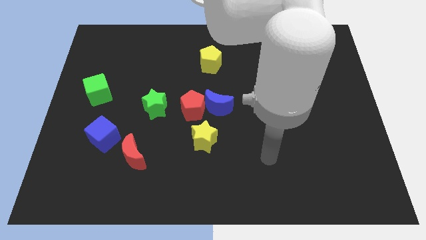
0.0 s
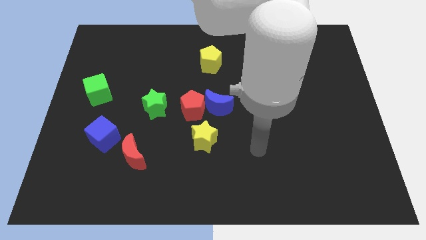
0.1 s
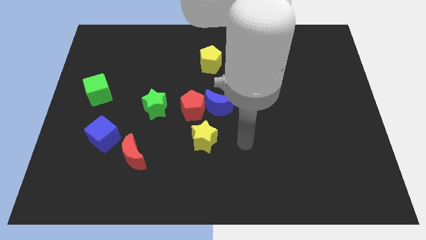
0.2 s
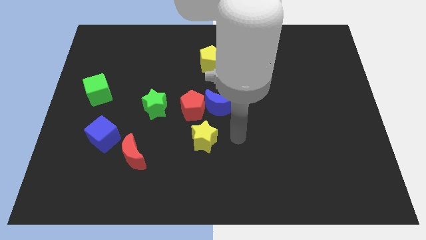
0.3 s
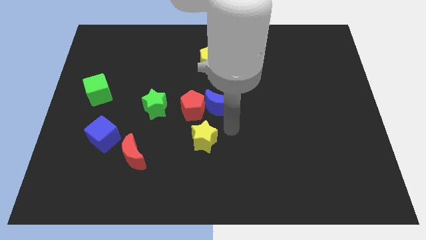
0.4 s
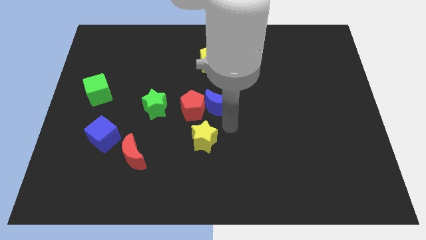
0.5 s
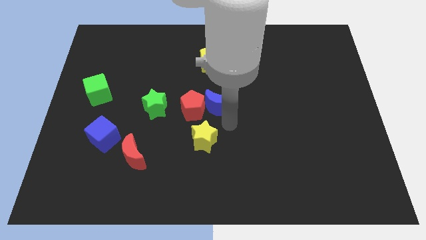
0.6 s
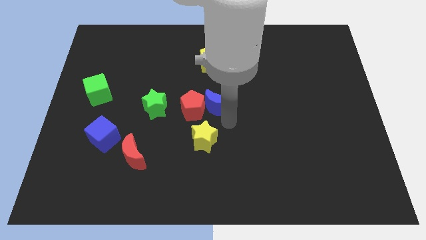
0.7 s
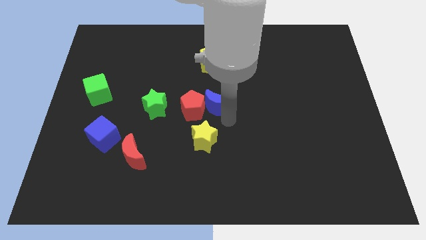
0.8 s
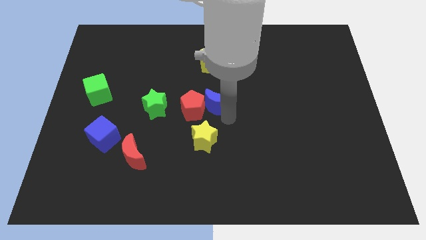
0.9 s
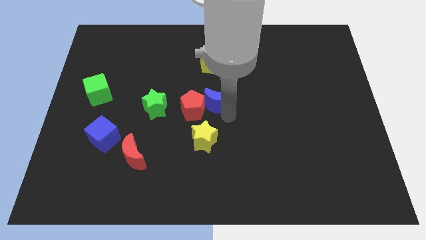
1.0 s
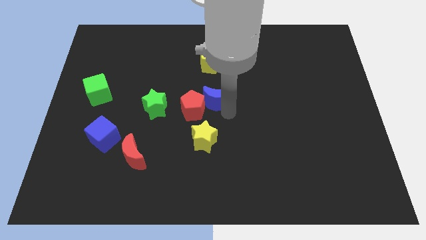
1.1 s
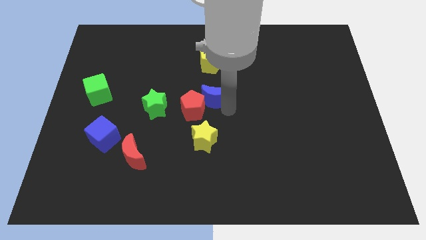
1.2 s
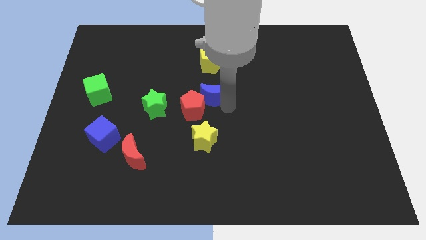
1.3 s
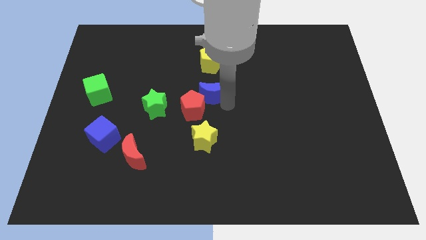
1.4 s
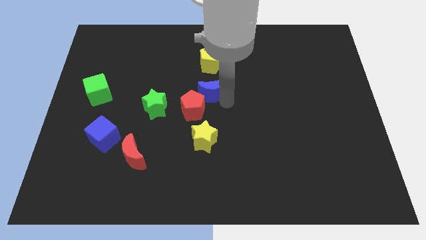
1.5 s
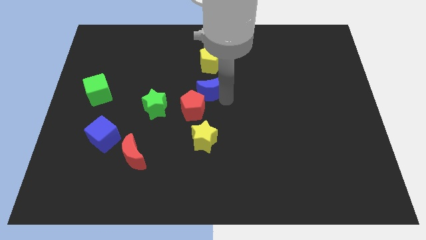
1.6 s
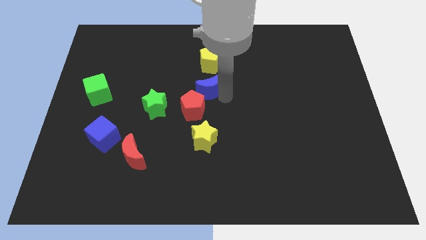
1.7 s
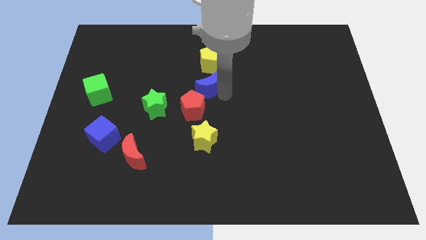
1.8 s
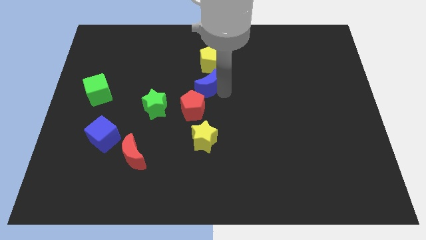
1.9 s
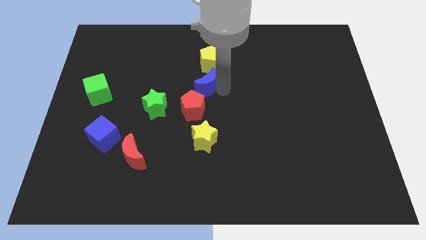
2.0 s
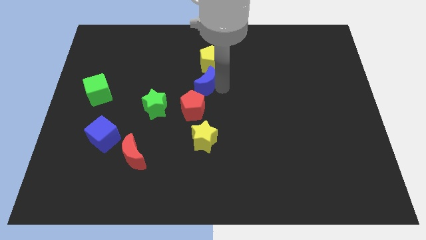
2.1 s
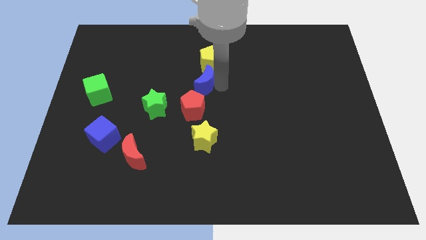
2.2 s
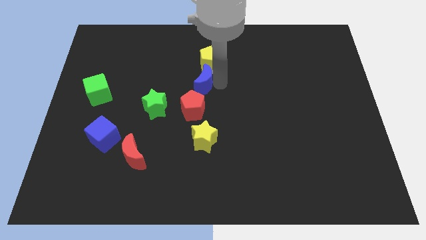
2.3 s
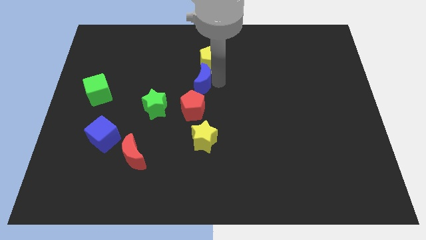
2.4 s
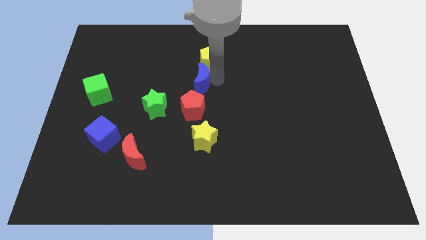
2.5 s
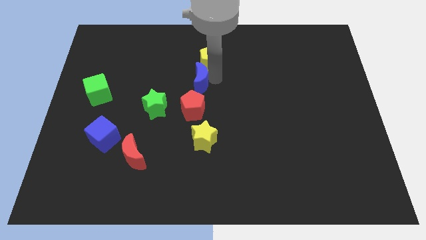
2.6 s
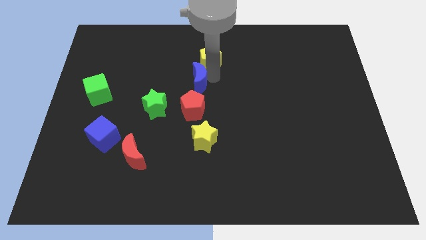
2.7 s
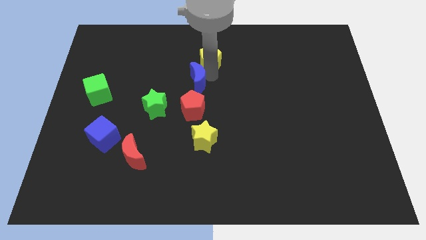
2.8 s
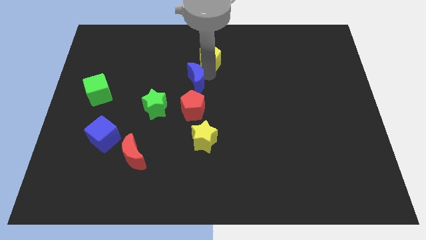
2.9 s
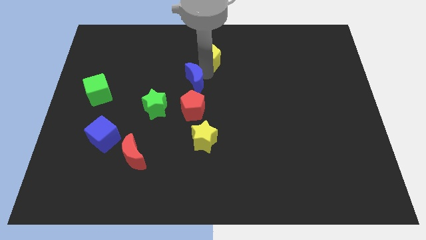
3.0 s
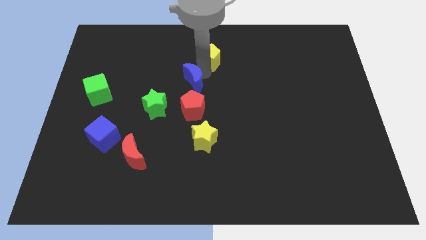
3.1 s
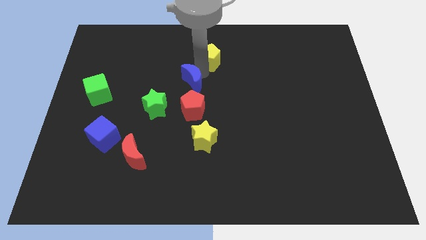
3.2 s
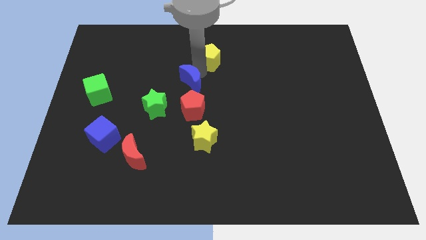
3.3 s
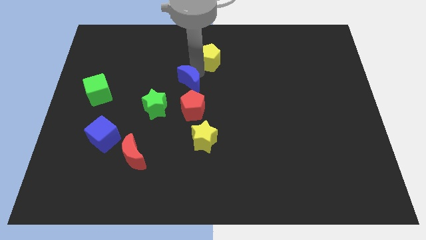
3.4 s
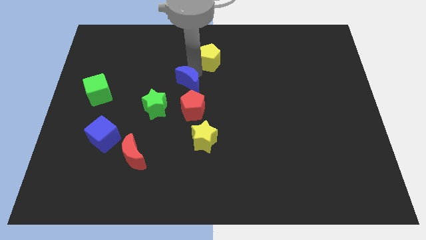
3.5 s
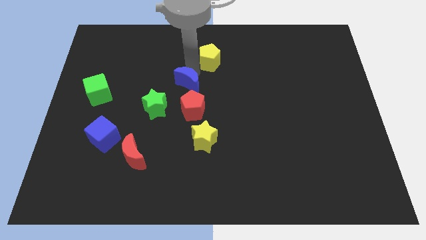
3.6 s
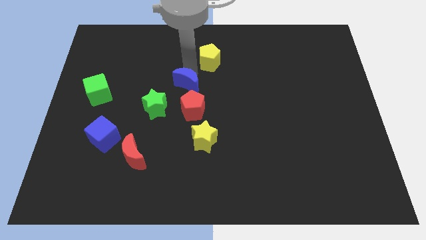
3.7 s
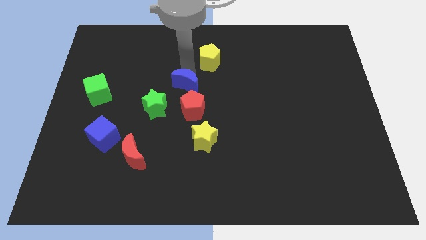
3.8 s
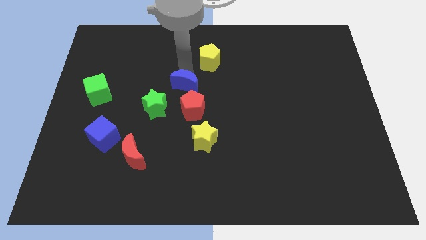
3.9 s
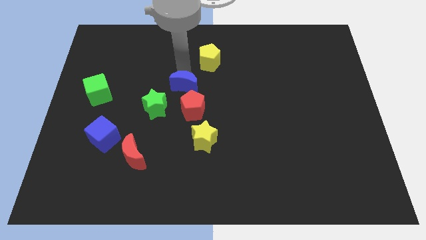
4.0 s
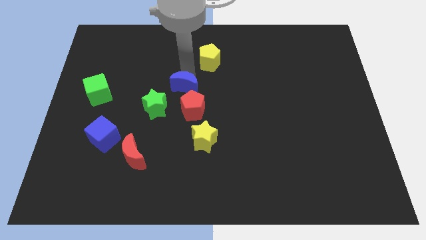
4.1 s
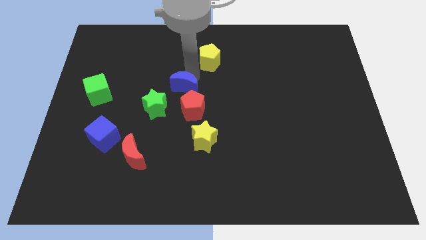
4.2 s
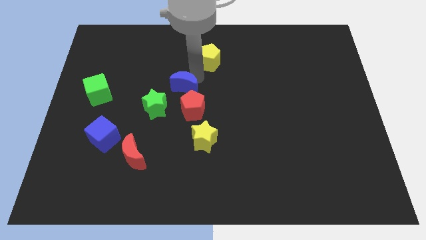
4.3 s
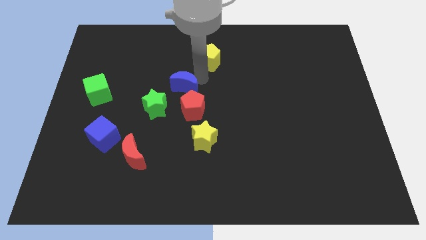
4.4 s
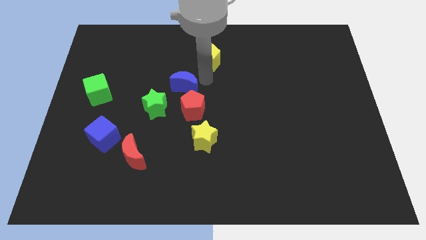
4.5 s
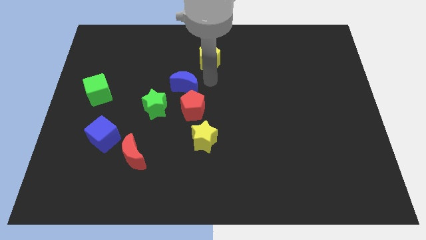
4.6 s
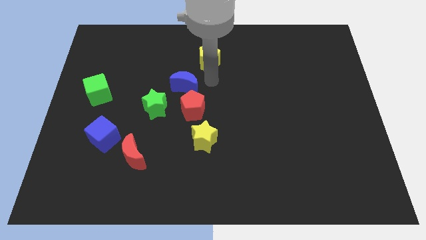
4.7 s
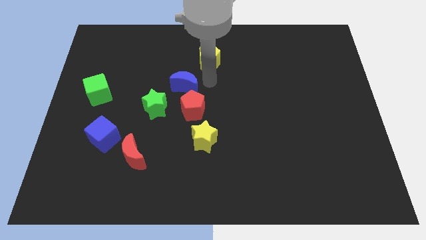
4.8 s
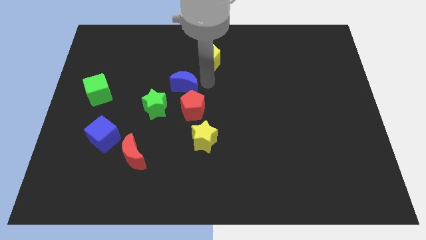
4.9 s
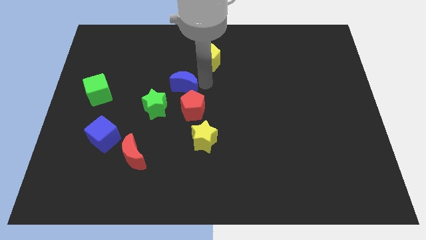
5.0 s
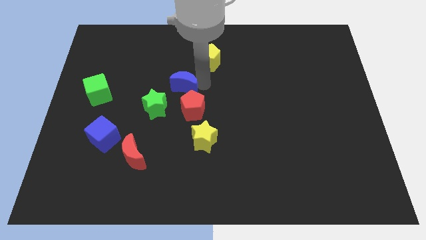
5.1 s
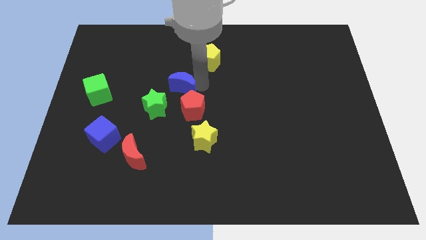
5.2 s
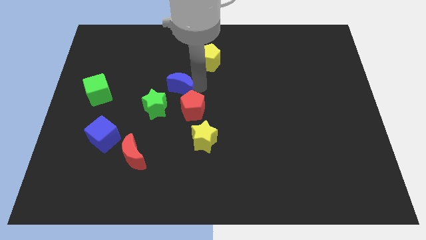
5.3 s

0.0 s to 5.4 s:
move the blue moon a little to the left

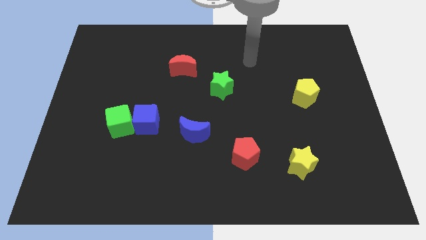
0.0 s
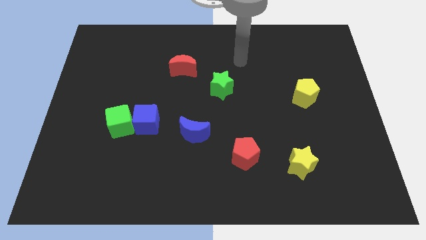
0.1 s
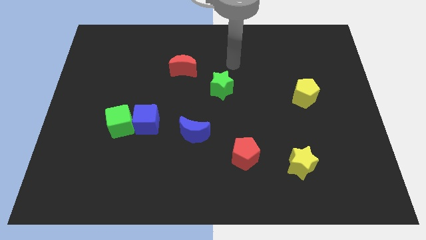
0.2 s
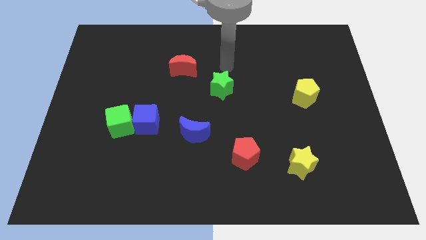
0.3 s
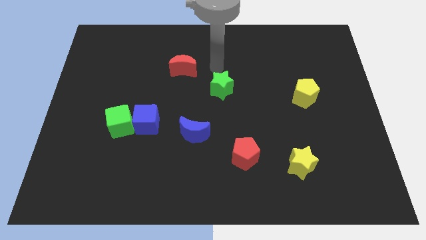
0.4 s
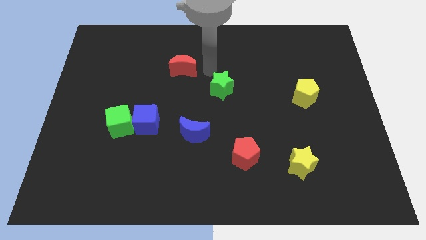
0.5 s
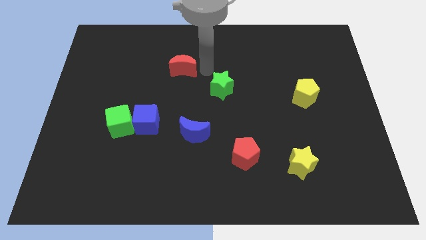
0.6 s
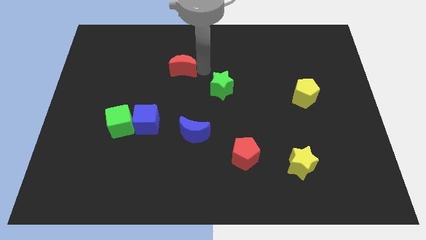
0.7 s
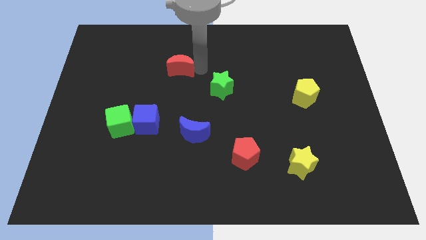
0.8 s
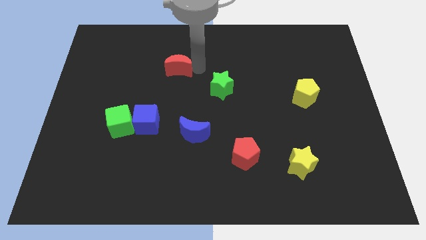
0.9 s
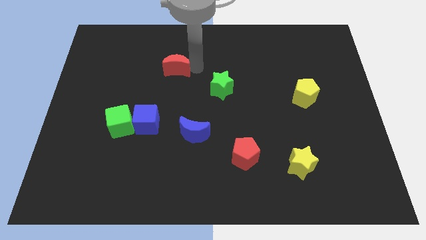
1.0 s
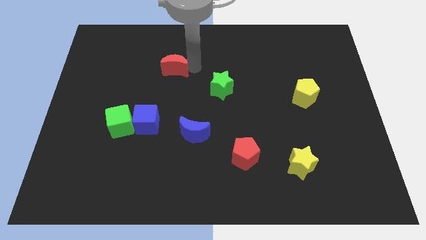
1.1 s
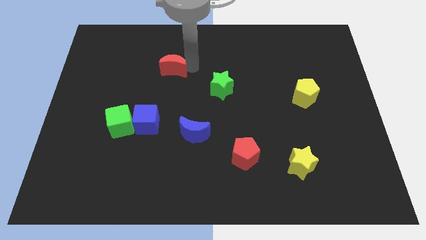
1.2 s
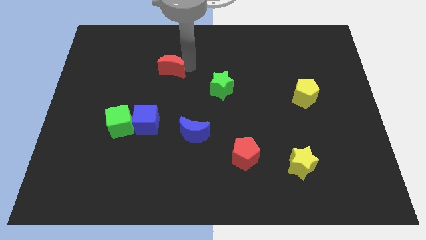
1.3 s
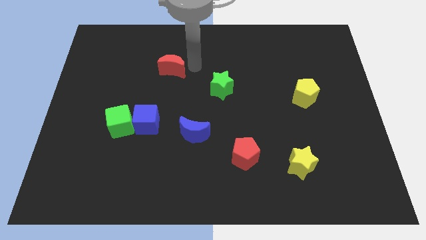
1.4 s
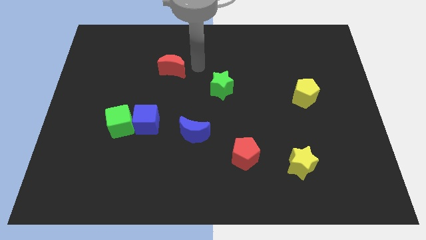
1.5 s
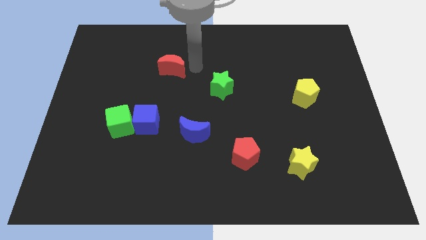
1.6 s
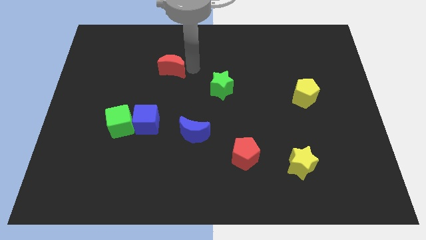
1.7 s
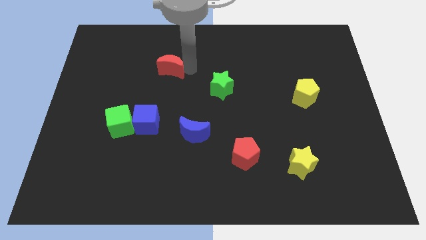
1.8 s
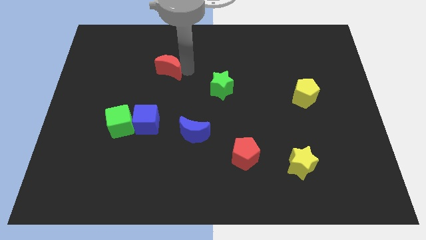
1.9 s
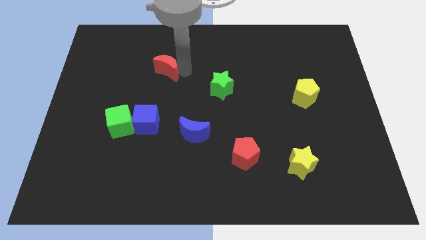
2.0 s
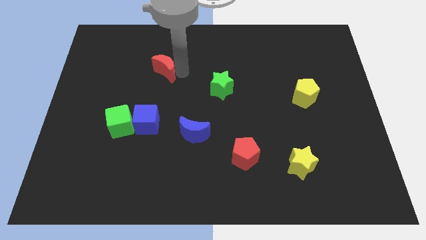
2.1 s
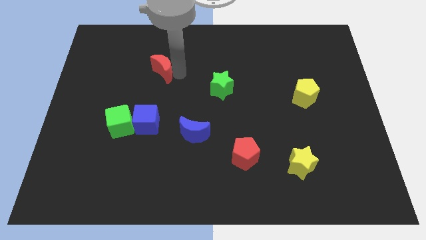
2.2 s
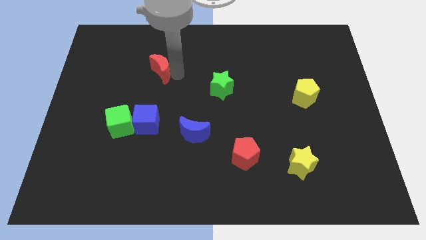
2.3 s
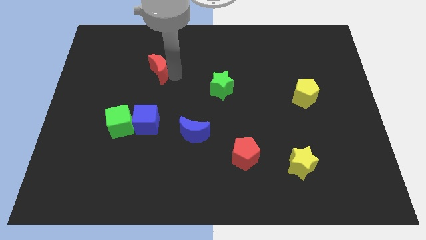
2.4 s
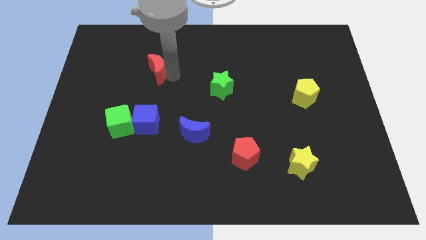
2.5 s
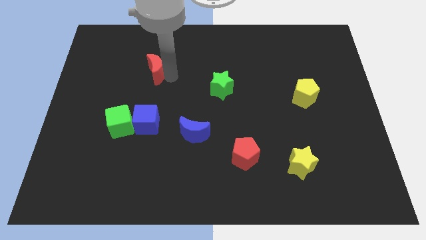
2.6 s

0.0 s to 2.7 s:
slightly move the red moon to the left
